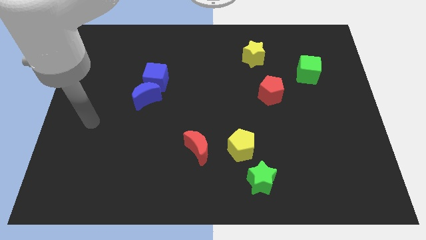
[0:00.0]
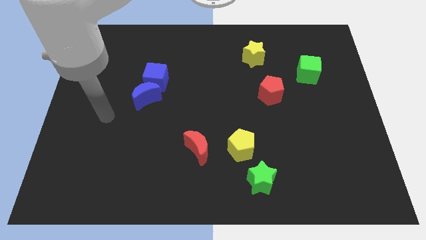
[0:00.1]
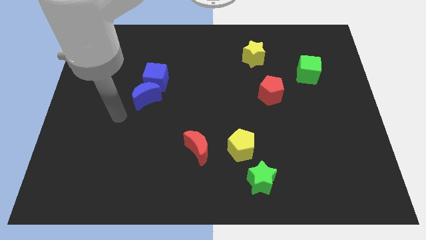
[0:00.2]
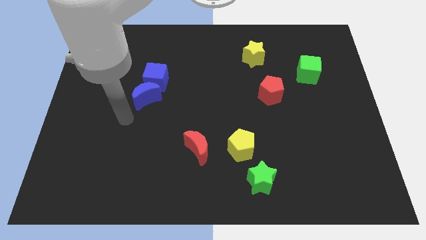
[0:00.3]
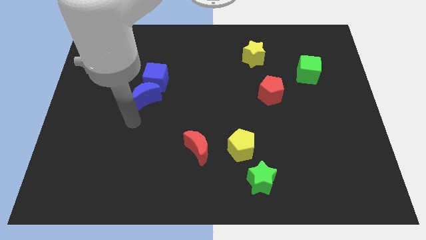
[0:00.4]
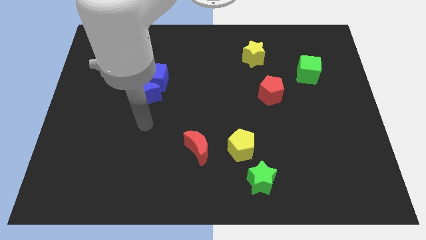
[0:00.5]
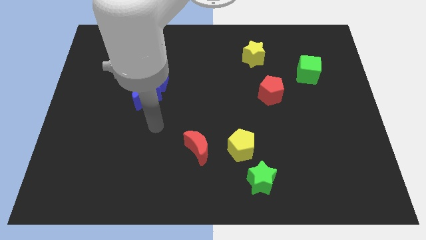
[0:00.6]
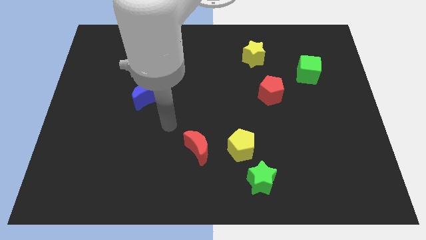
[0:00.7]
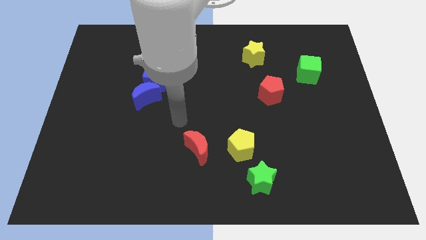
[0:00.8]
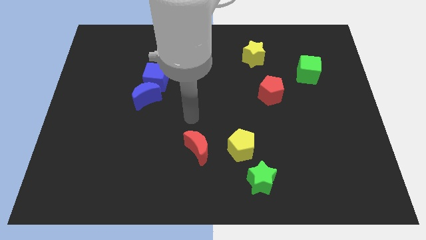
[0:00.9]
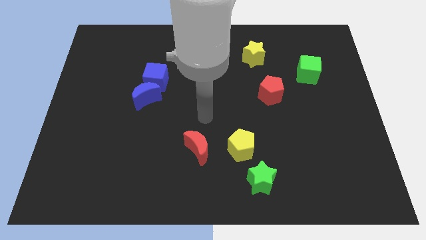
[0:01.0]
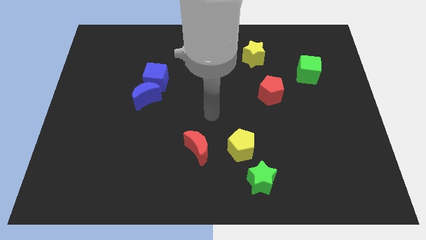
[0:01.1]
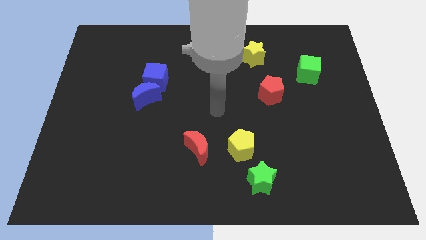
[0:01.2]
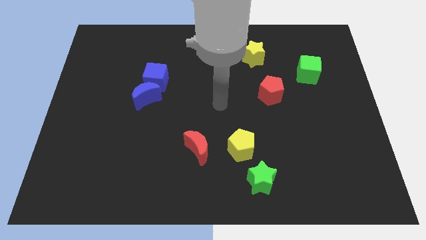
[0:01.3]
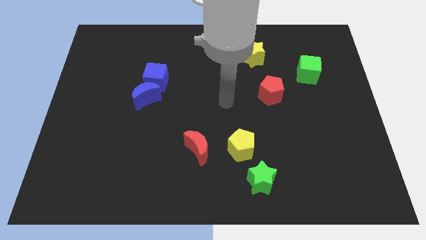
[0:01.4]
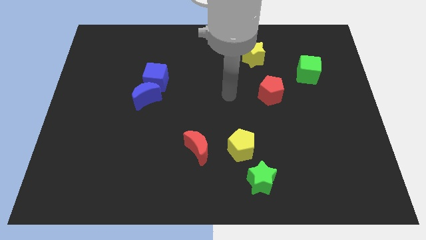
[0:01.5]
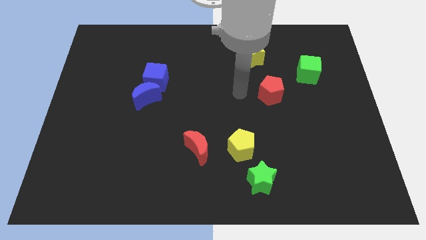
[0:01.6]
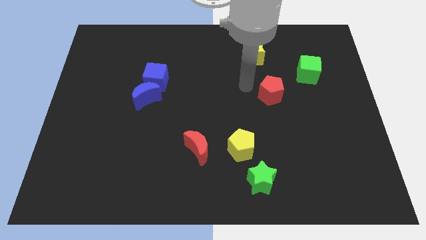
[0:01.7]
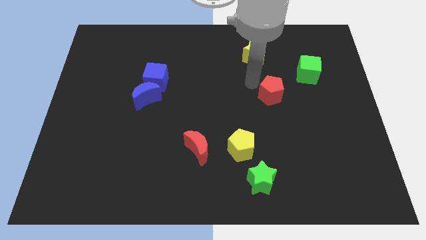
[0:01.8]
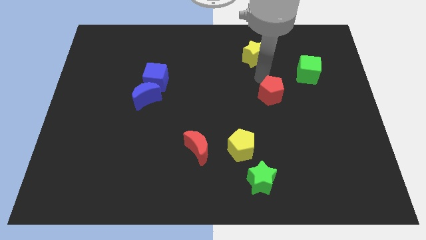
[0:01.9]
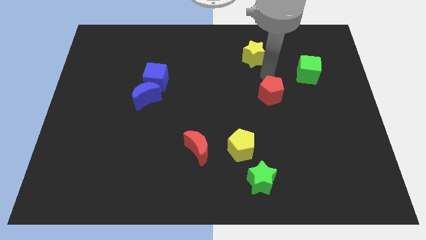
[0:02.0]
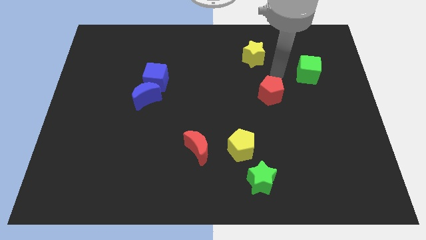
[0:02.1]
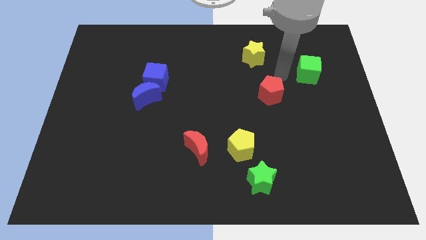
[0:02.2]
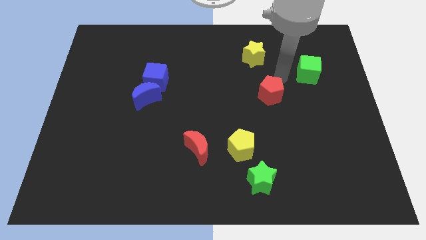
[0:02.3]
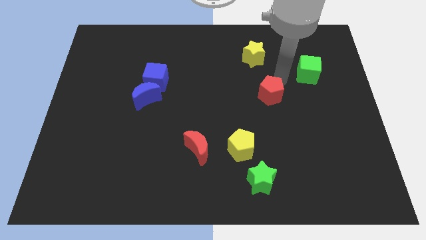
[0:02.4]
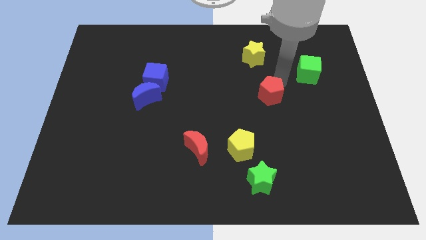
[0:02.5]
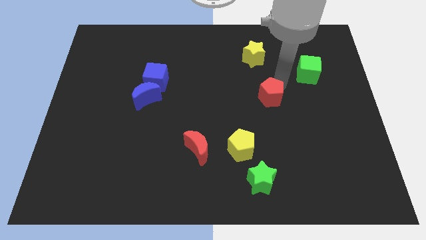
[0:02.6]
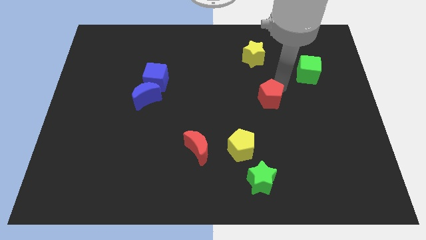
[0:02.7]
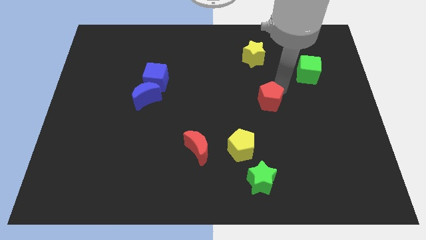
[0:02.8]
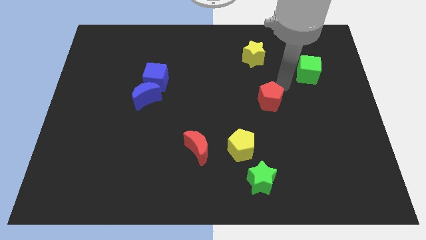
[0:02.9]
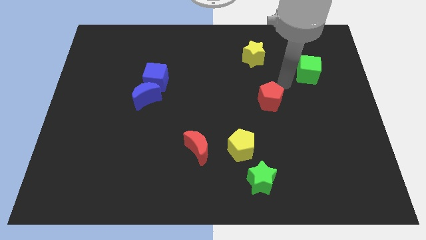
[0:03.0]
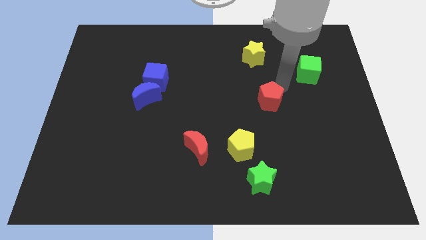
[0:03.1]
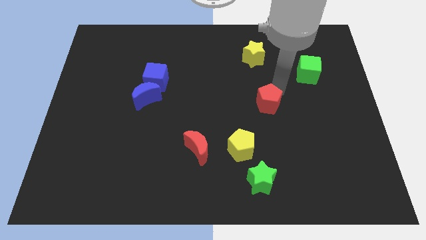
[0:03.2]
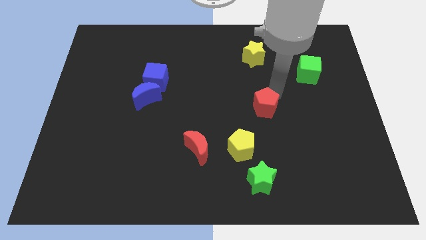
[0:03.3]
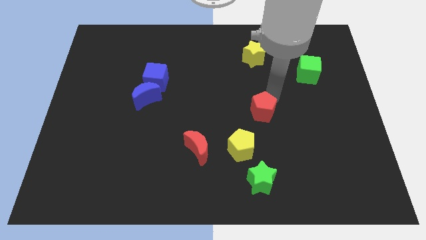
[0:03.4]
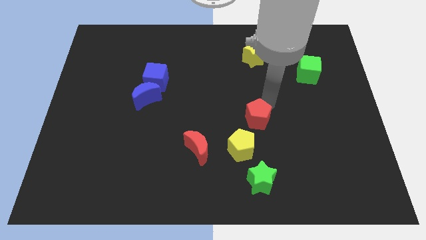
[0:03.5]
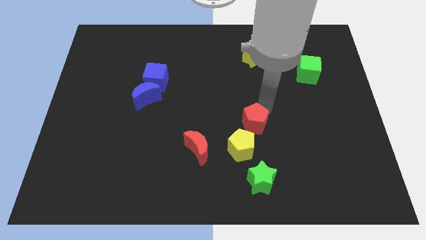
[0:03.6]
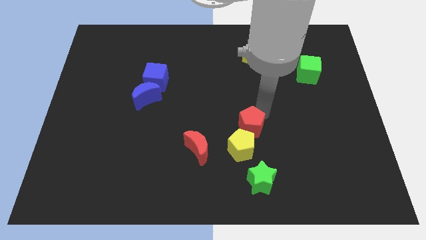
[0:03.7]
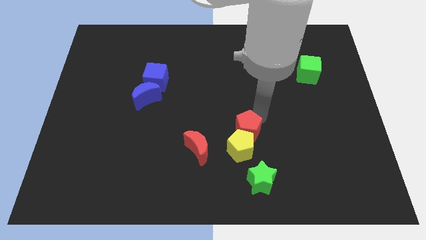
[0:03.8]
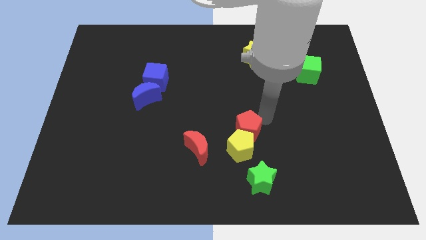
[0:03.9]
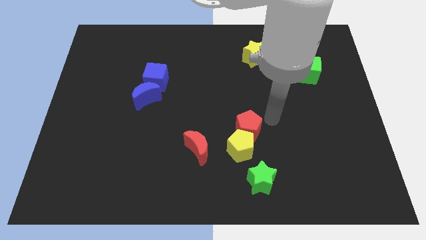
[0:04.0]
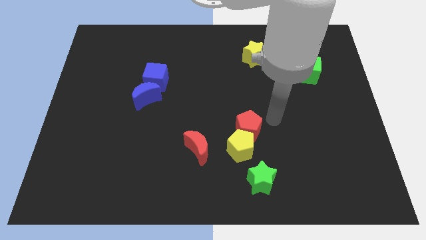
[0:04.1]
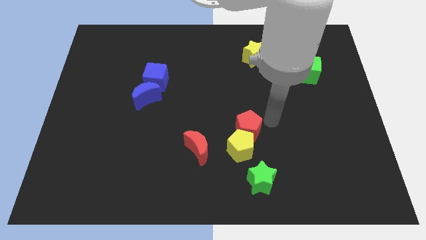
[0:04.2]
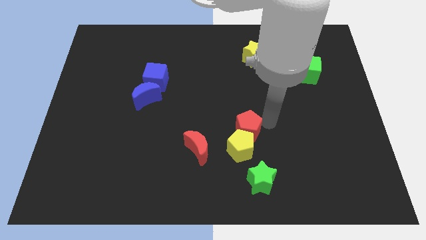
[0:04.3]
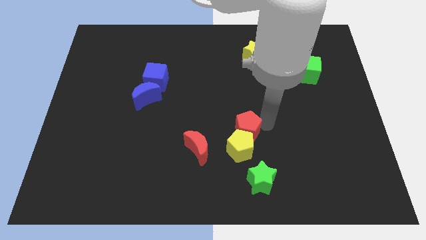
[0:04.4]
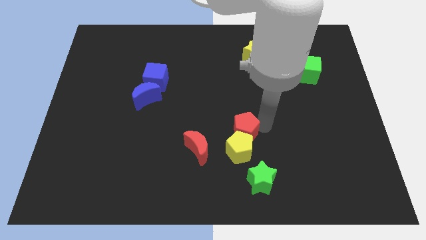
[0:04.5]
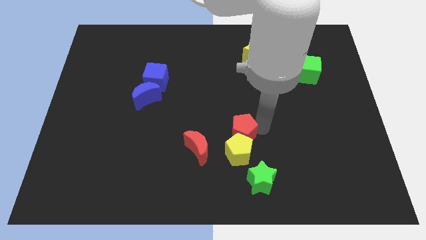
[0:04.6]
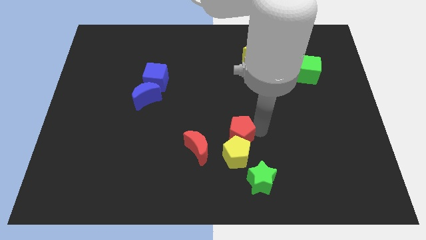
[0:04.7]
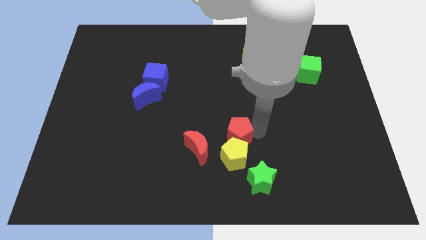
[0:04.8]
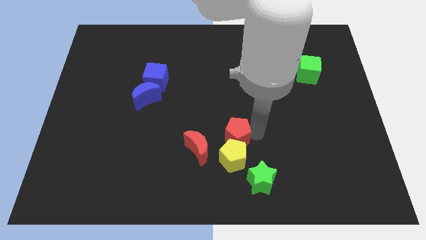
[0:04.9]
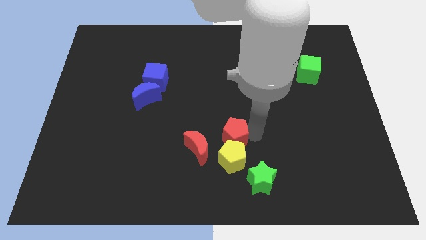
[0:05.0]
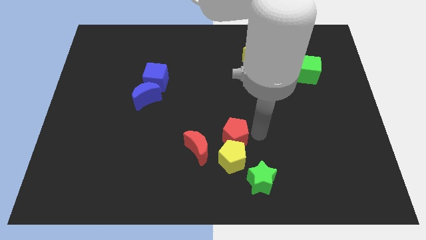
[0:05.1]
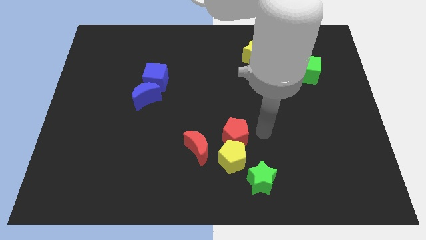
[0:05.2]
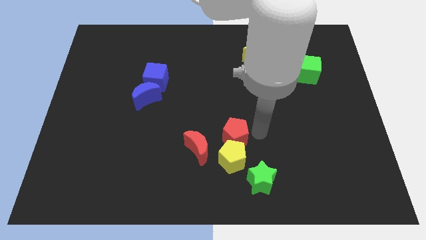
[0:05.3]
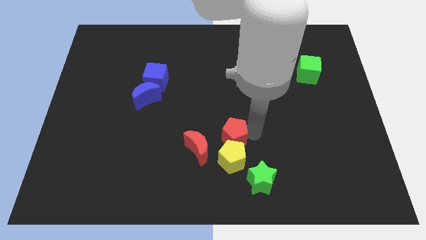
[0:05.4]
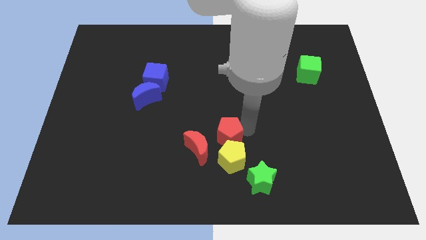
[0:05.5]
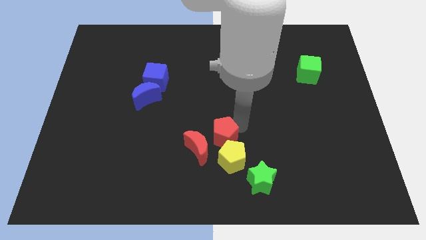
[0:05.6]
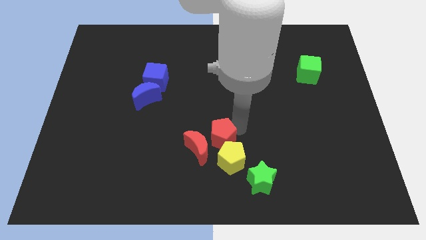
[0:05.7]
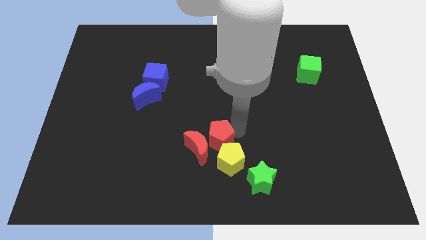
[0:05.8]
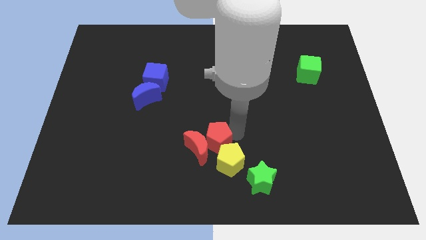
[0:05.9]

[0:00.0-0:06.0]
put the red pentagon to the top left side of the green star
